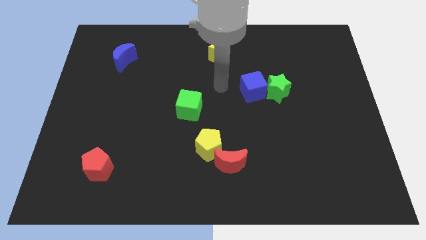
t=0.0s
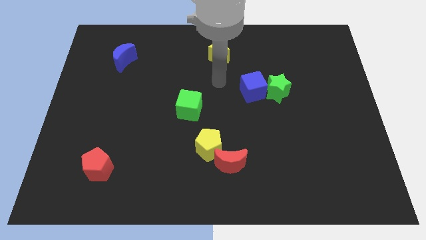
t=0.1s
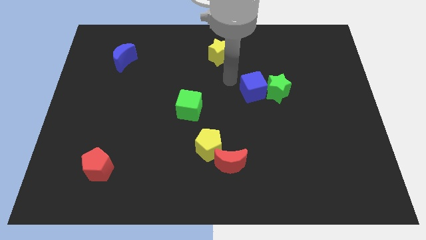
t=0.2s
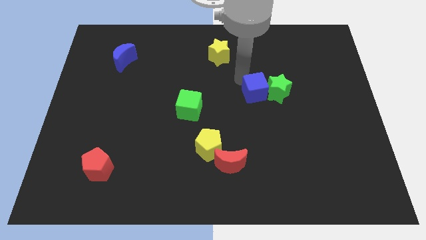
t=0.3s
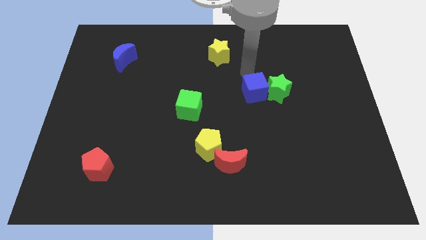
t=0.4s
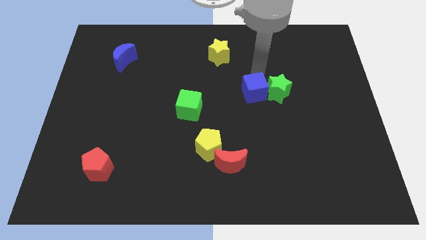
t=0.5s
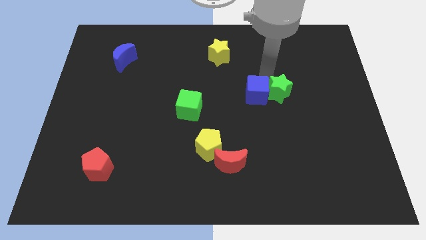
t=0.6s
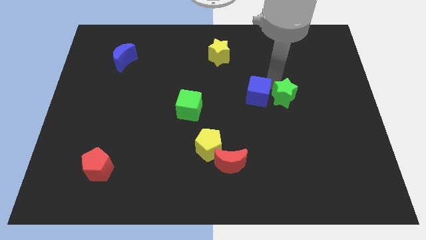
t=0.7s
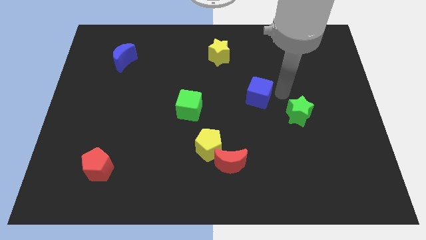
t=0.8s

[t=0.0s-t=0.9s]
pull the blue cube apart from the green star

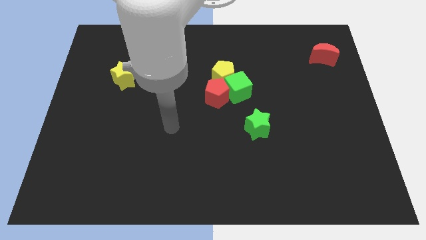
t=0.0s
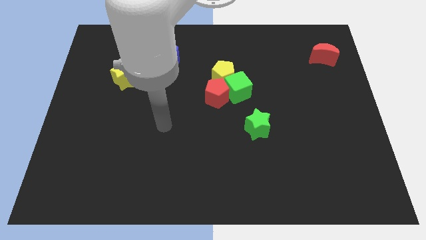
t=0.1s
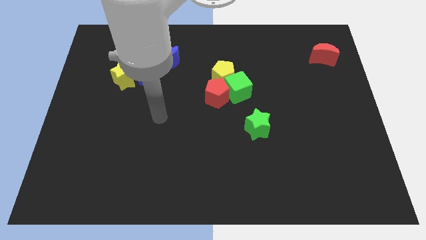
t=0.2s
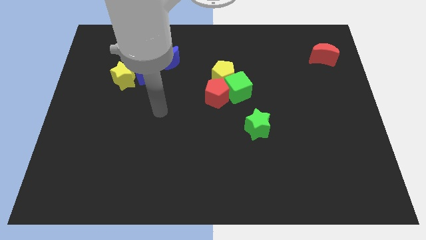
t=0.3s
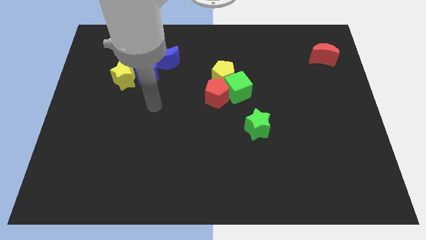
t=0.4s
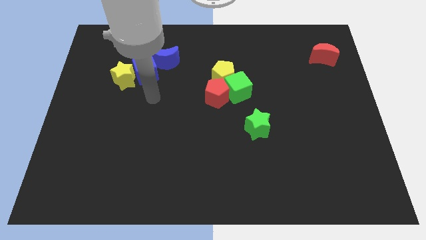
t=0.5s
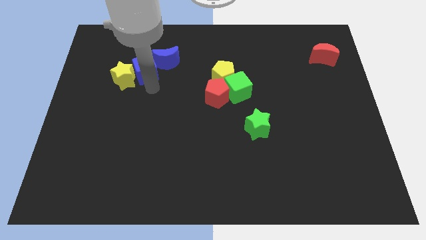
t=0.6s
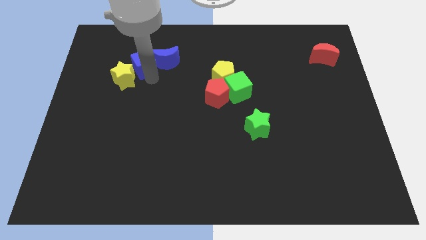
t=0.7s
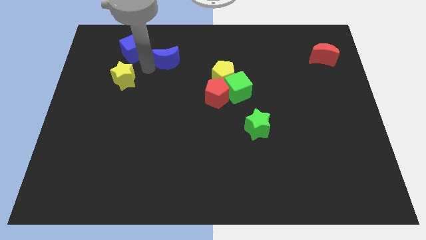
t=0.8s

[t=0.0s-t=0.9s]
move the yellow star away from the blue cube

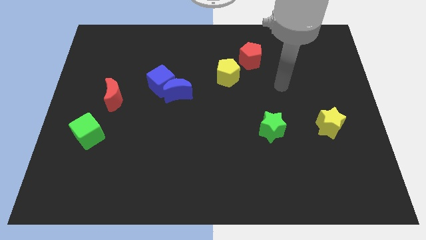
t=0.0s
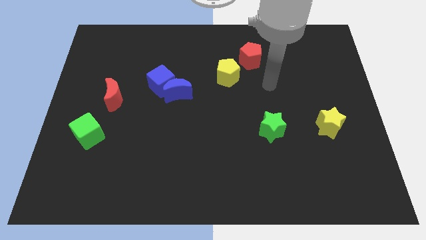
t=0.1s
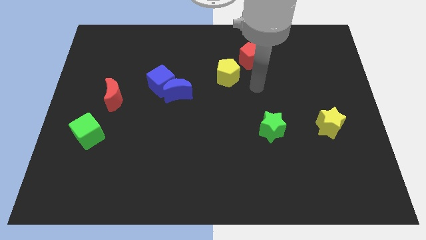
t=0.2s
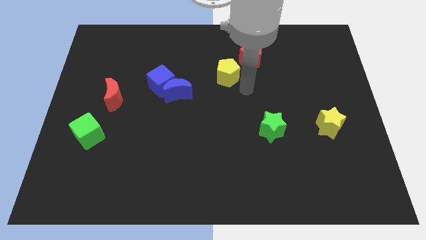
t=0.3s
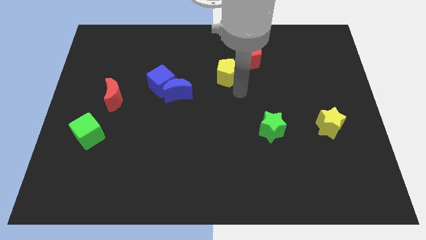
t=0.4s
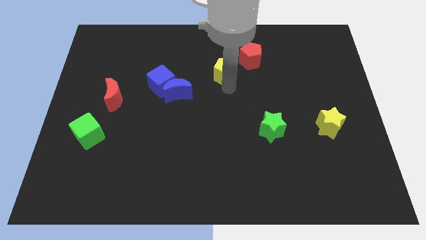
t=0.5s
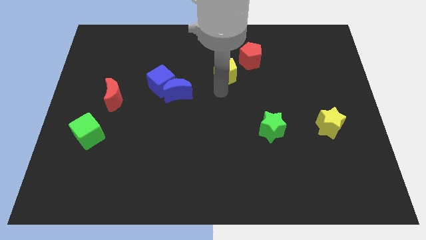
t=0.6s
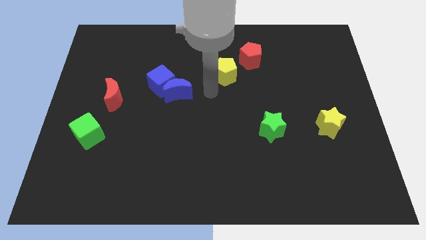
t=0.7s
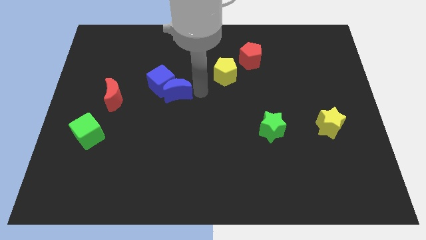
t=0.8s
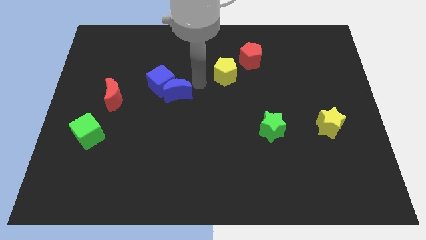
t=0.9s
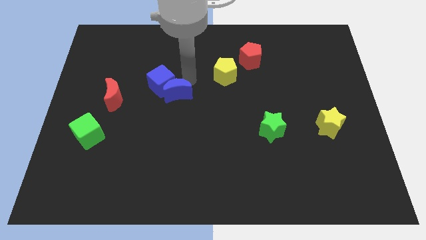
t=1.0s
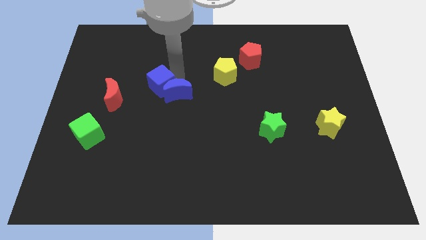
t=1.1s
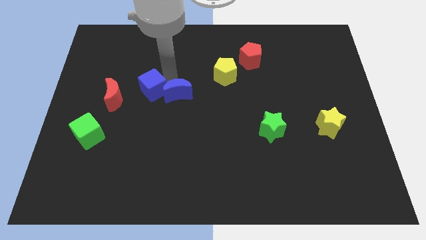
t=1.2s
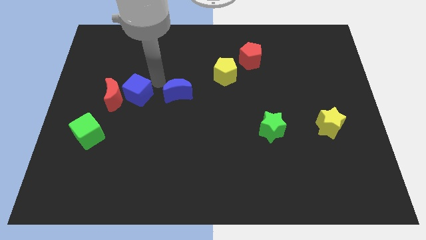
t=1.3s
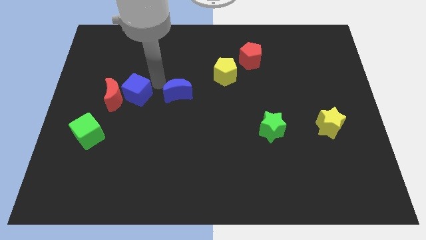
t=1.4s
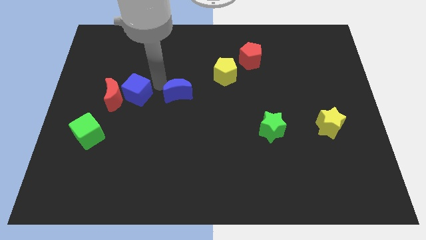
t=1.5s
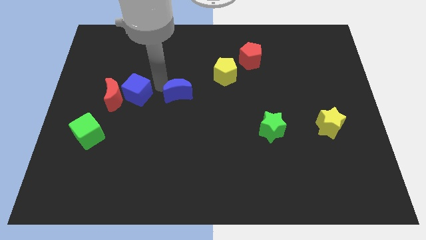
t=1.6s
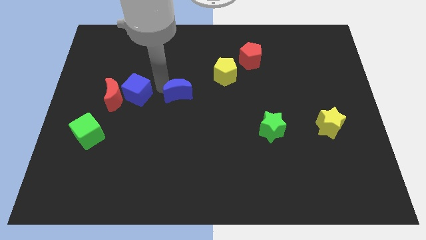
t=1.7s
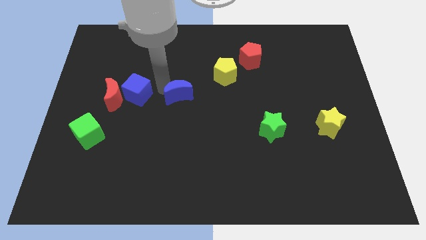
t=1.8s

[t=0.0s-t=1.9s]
separate the blue moon from the blue cube

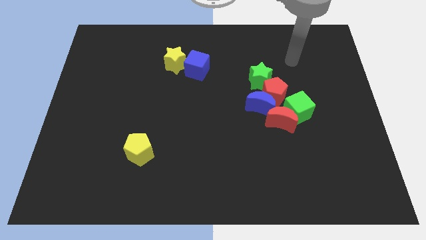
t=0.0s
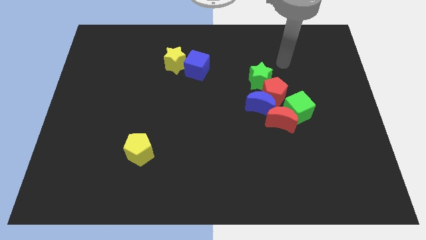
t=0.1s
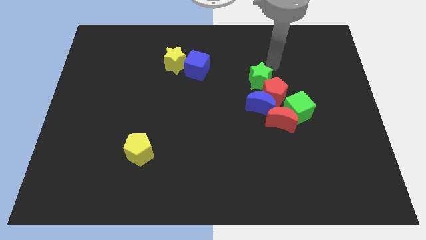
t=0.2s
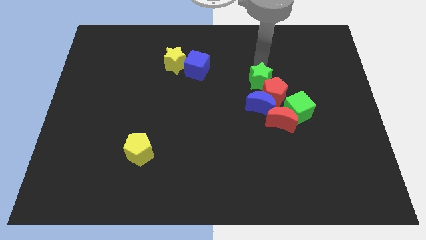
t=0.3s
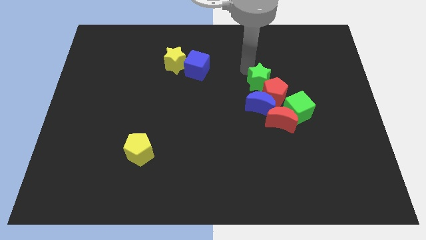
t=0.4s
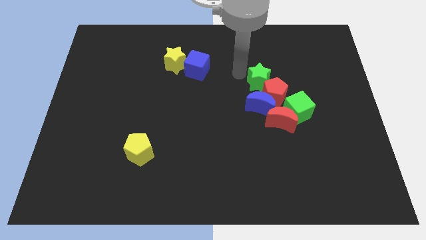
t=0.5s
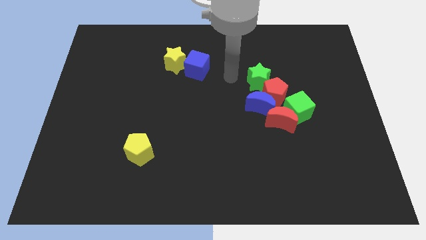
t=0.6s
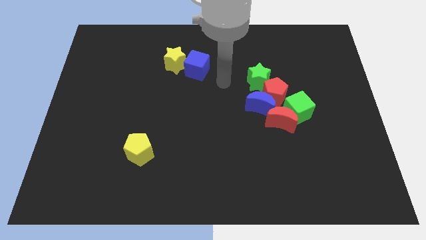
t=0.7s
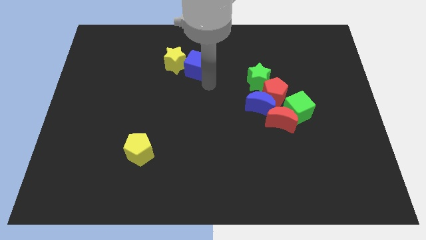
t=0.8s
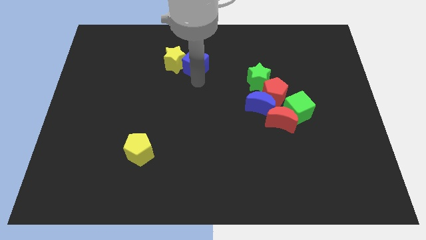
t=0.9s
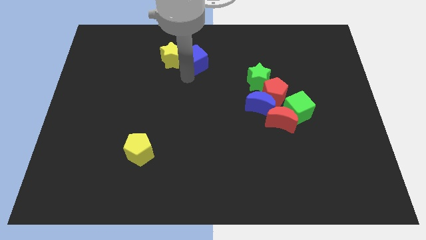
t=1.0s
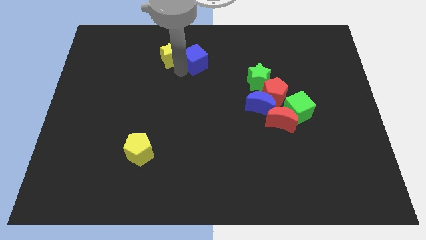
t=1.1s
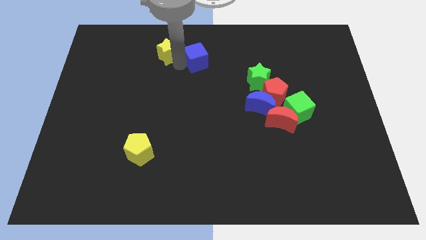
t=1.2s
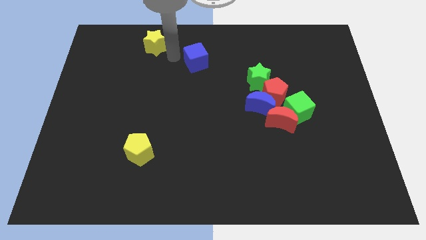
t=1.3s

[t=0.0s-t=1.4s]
separate the blue cube from the yellow star

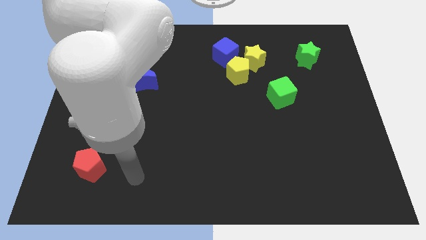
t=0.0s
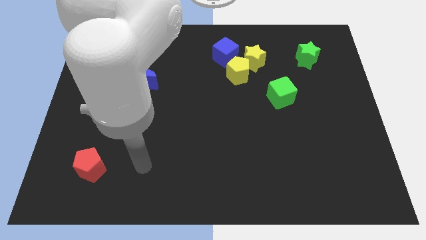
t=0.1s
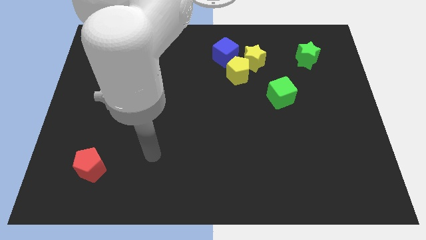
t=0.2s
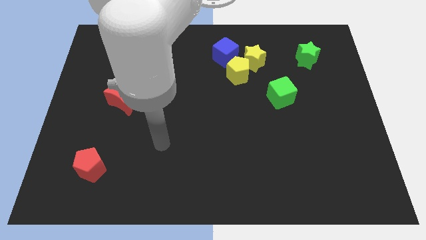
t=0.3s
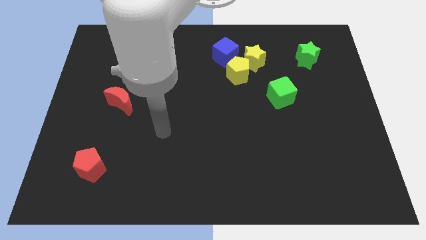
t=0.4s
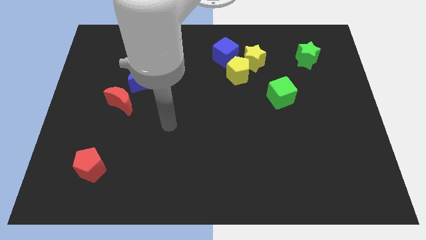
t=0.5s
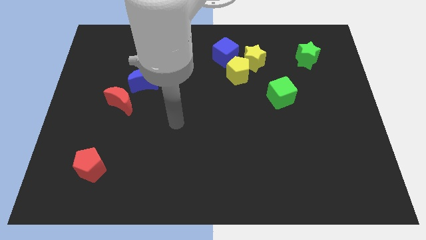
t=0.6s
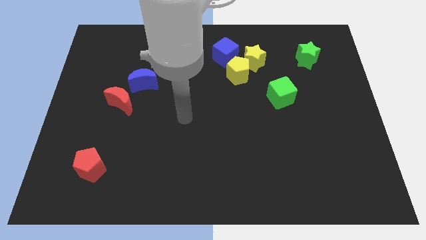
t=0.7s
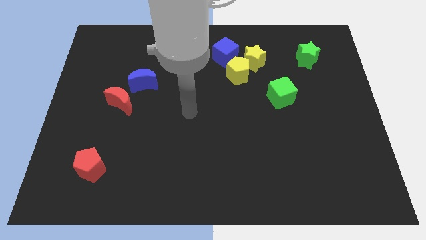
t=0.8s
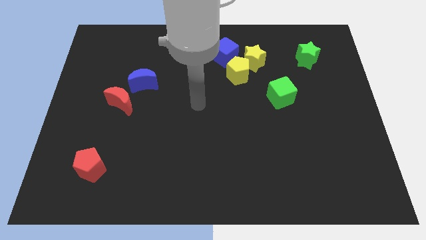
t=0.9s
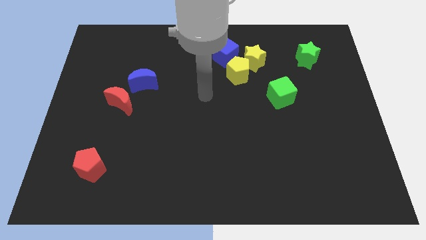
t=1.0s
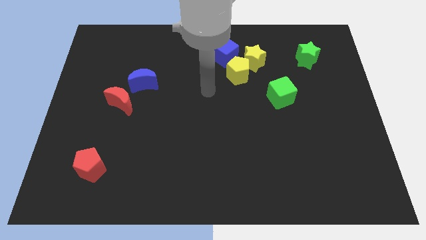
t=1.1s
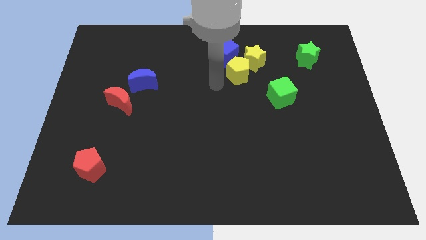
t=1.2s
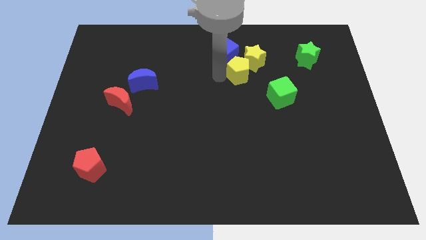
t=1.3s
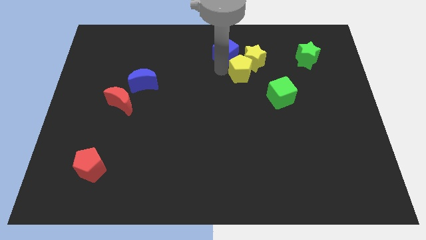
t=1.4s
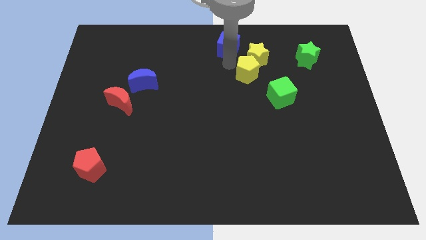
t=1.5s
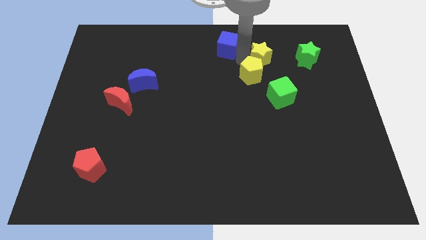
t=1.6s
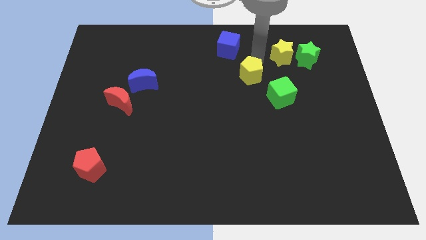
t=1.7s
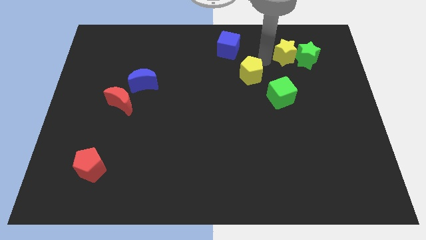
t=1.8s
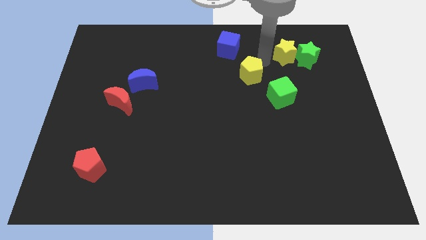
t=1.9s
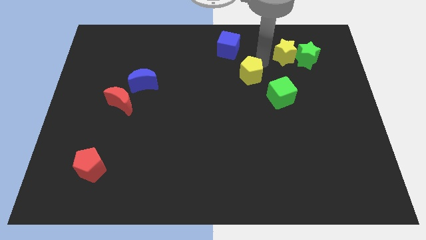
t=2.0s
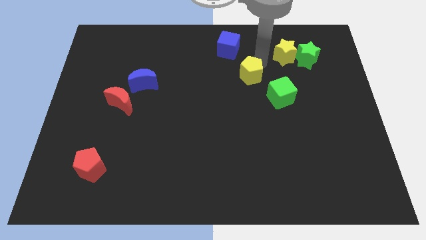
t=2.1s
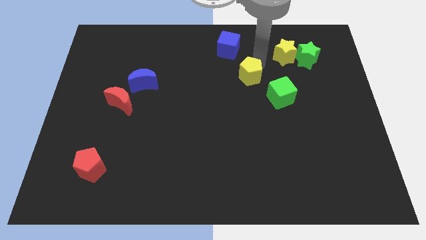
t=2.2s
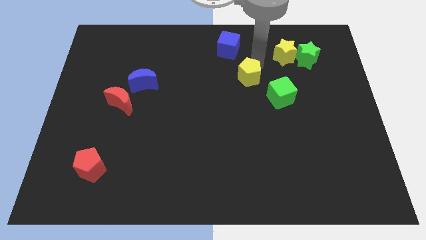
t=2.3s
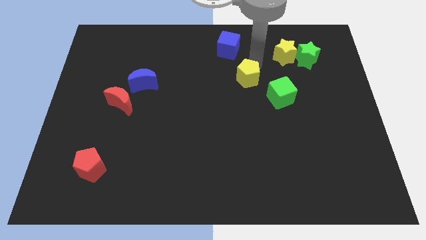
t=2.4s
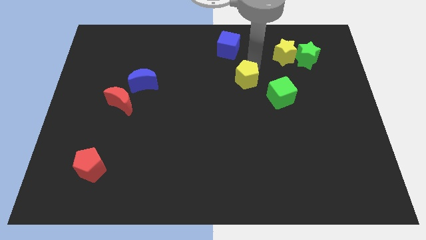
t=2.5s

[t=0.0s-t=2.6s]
separate the yellow pentagon from the yellow star and blue cube

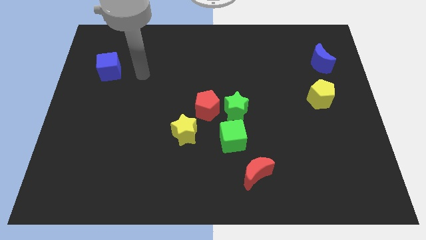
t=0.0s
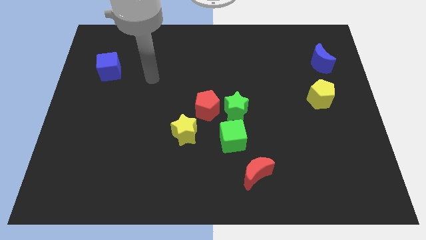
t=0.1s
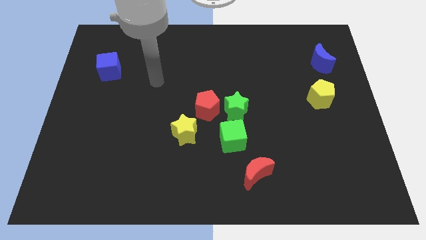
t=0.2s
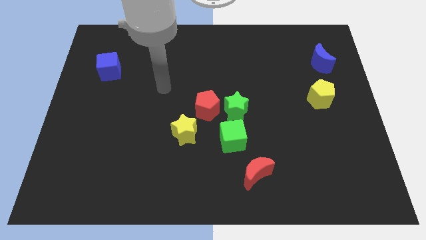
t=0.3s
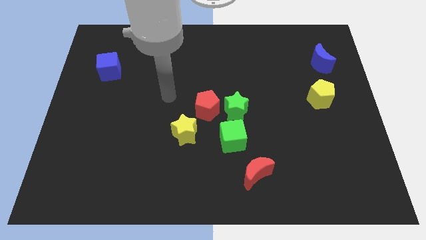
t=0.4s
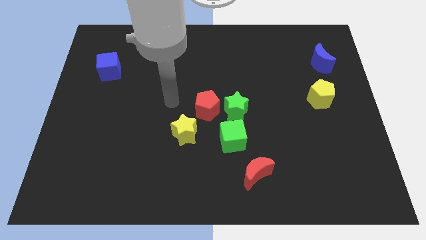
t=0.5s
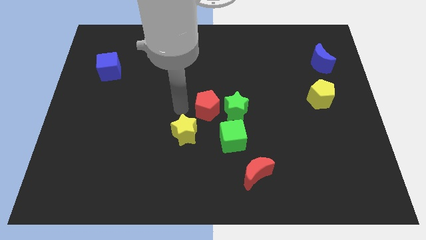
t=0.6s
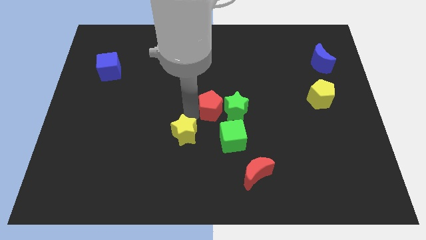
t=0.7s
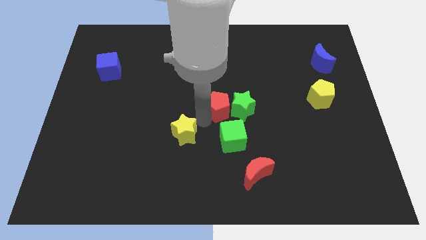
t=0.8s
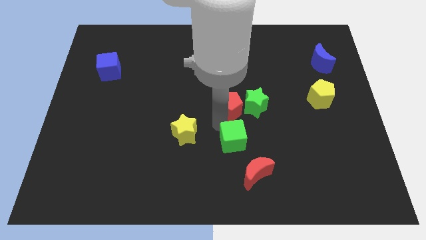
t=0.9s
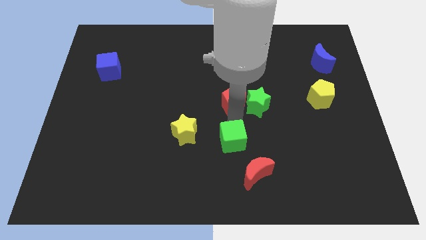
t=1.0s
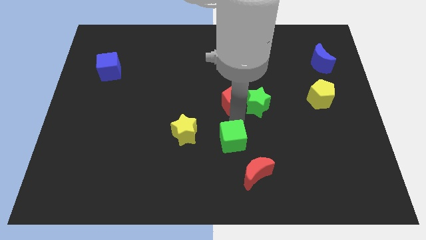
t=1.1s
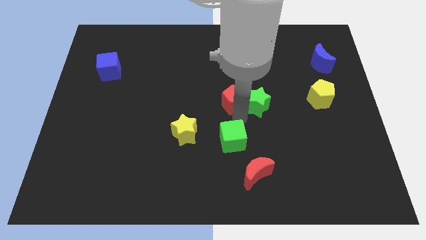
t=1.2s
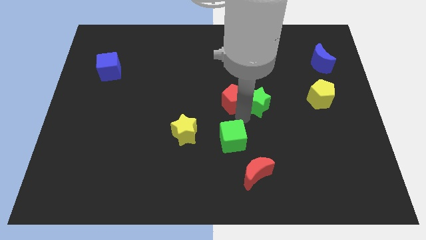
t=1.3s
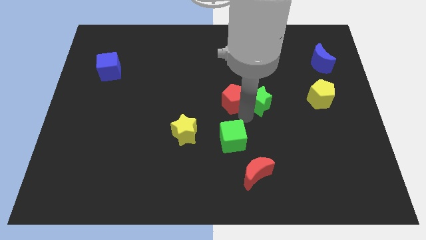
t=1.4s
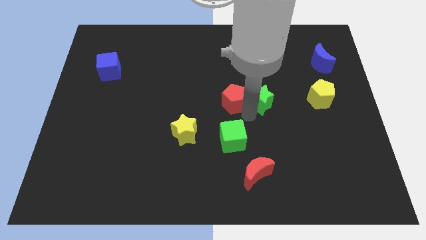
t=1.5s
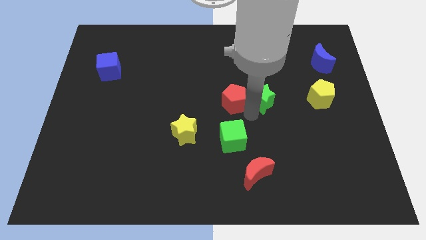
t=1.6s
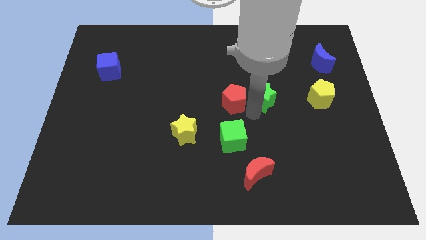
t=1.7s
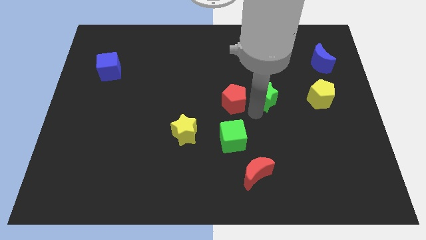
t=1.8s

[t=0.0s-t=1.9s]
separate the green star from the red pentagon and green cube
